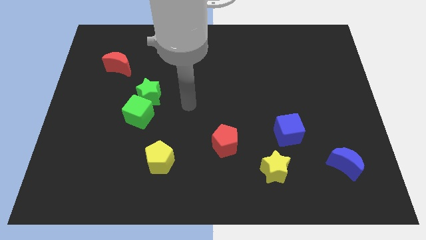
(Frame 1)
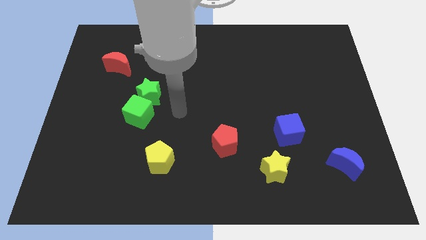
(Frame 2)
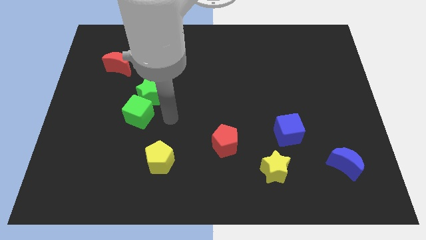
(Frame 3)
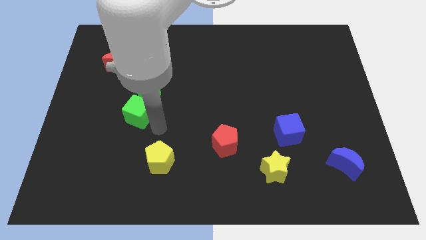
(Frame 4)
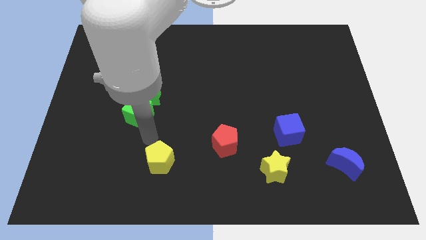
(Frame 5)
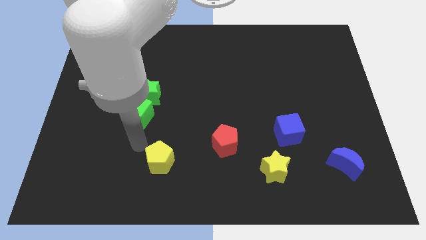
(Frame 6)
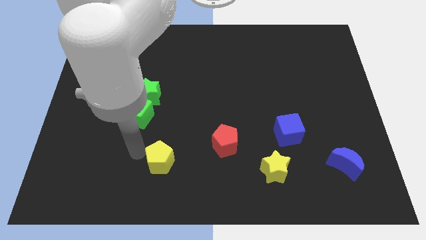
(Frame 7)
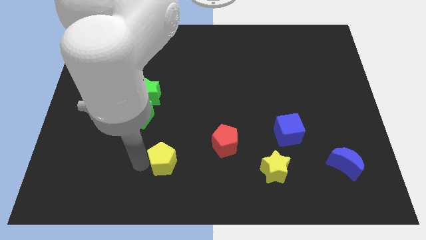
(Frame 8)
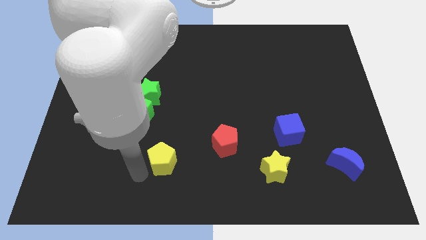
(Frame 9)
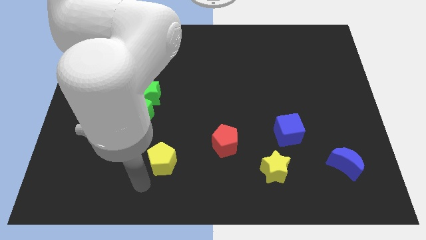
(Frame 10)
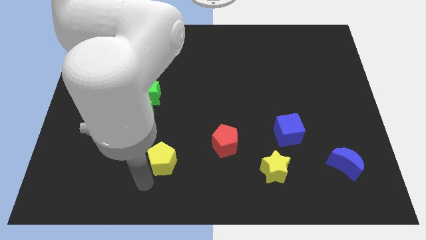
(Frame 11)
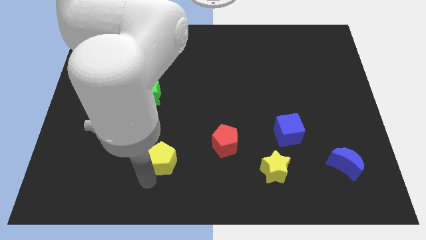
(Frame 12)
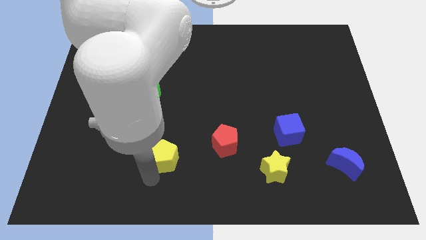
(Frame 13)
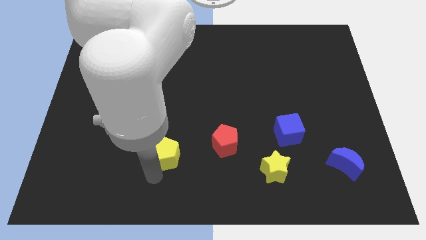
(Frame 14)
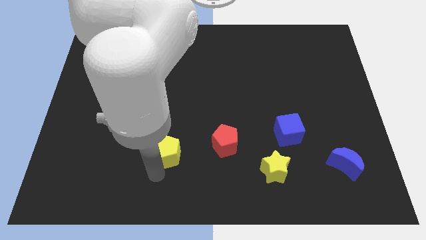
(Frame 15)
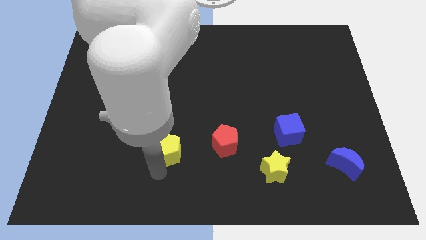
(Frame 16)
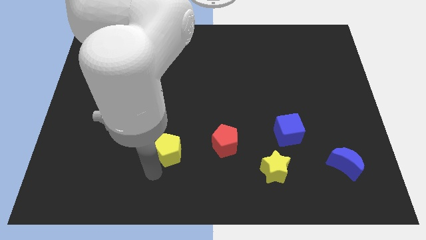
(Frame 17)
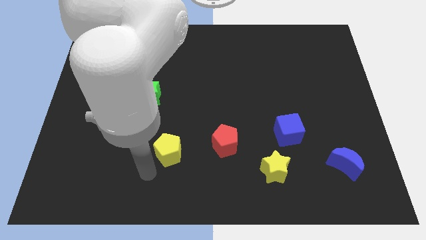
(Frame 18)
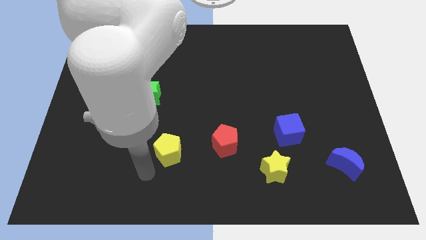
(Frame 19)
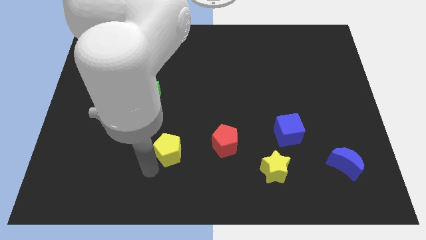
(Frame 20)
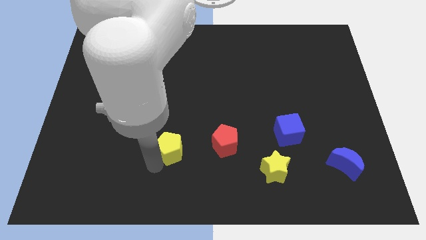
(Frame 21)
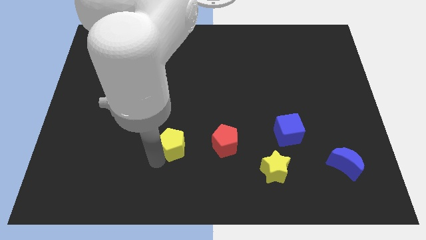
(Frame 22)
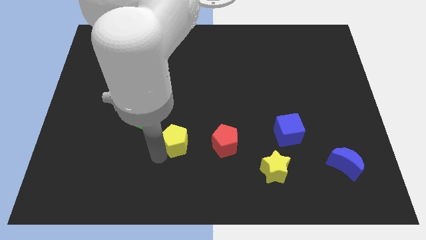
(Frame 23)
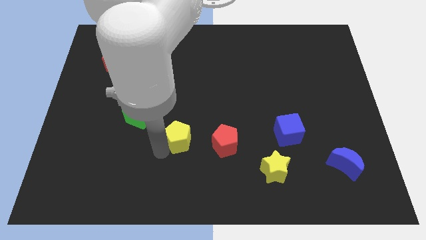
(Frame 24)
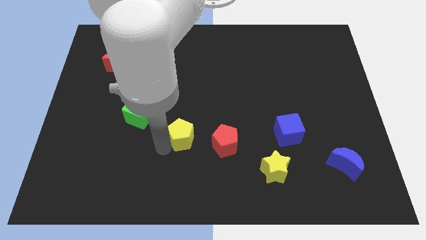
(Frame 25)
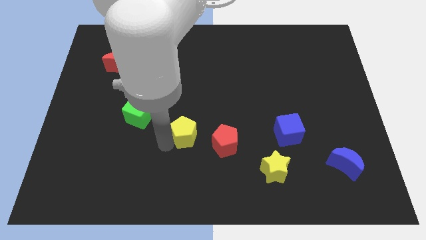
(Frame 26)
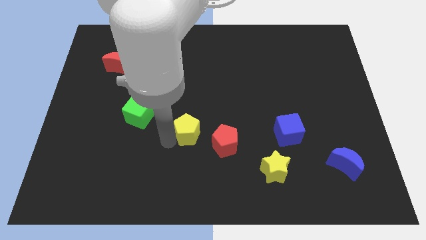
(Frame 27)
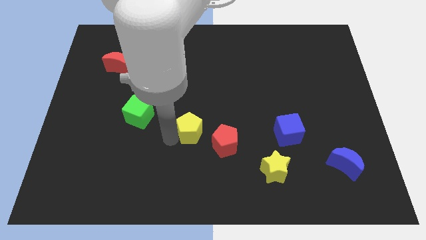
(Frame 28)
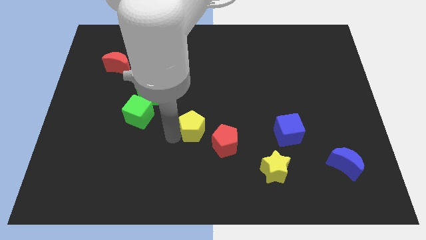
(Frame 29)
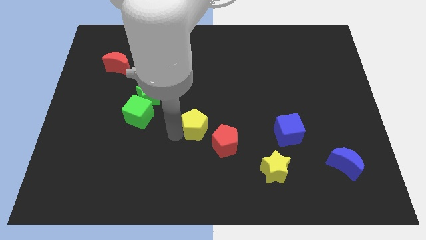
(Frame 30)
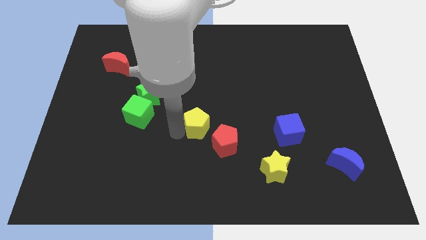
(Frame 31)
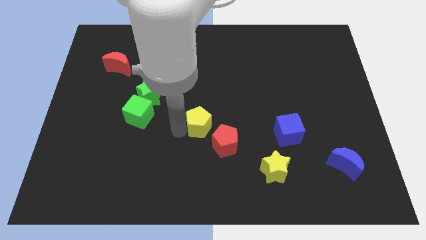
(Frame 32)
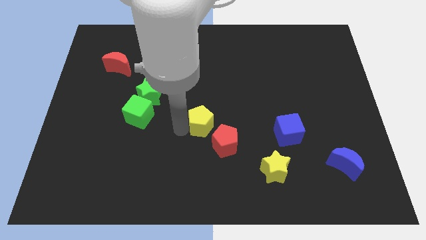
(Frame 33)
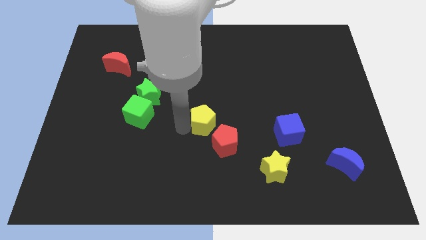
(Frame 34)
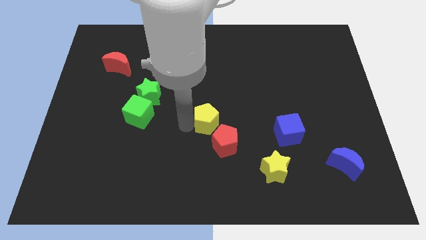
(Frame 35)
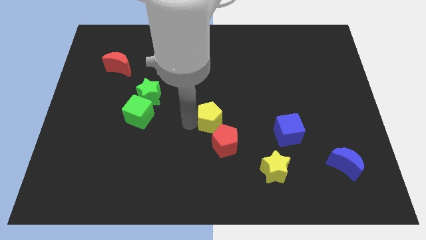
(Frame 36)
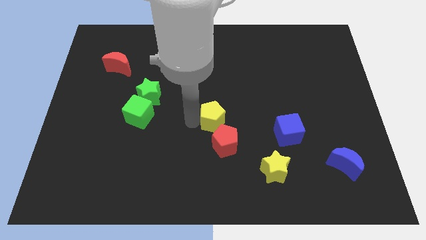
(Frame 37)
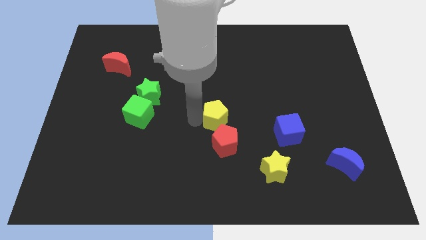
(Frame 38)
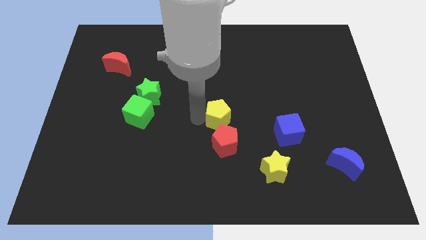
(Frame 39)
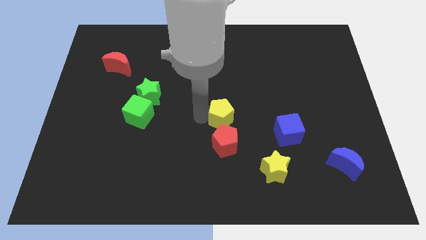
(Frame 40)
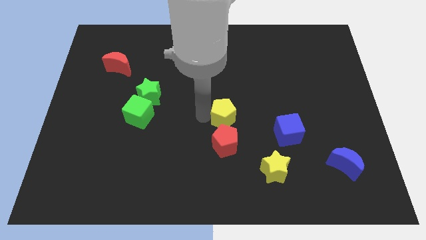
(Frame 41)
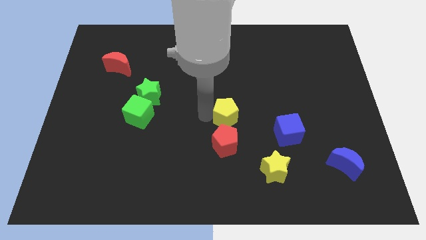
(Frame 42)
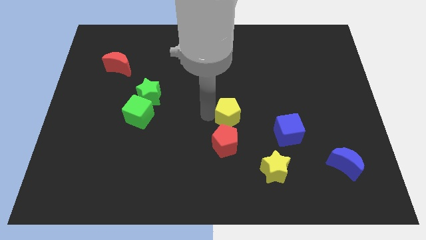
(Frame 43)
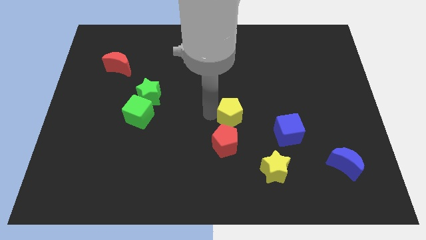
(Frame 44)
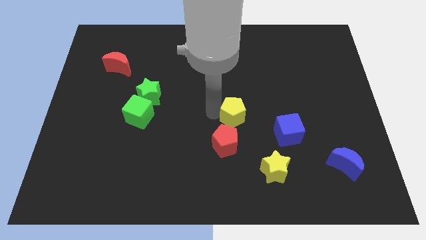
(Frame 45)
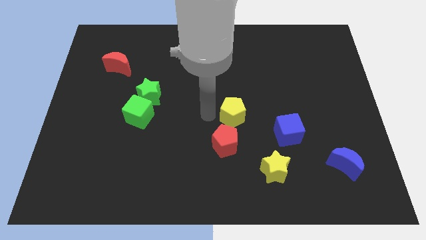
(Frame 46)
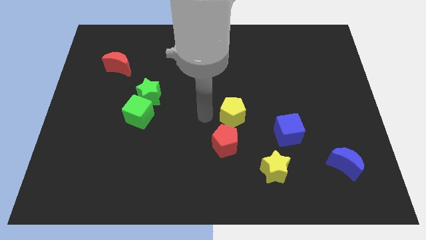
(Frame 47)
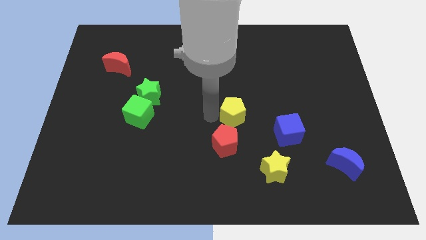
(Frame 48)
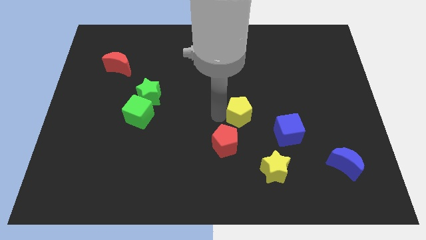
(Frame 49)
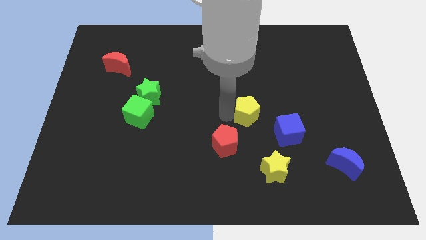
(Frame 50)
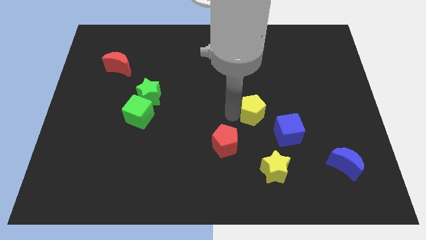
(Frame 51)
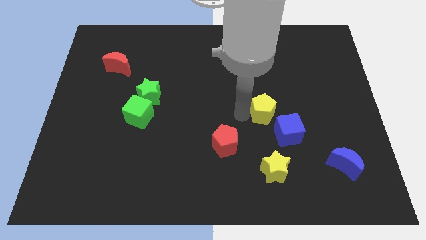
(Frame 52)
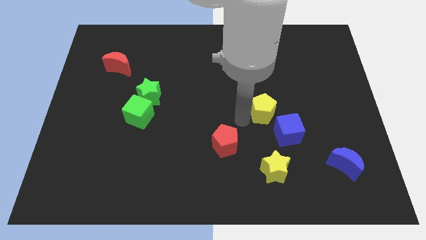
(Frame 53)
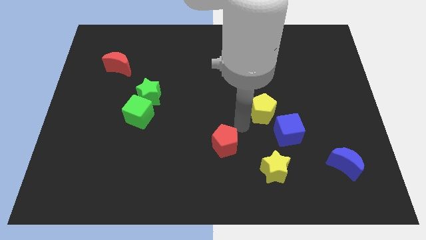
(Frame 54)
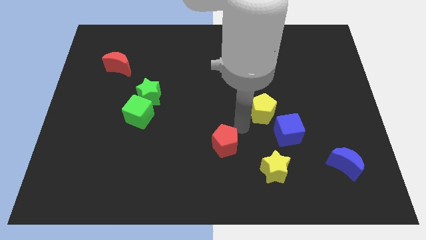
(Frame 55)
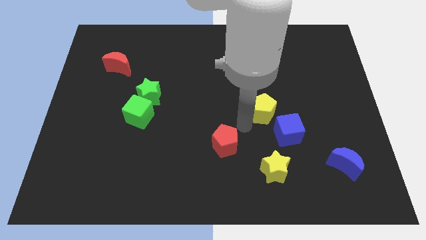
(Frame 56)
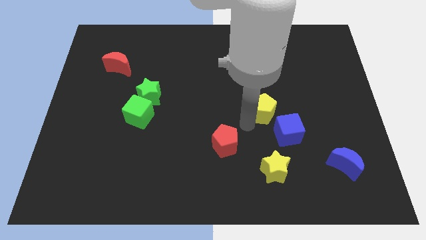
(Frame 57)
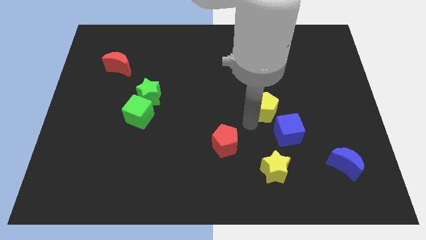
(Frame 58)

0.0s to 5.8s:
put the yellow pentagon to the top of the blue cube

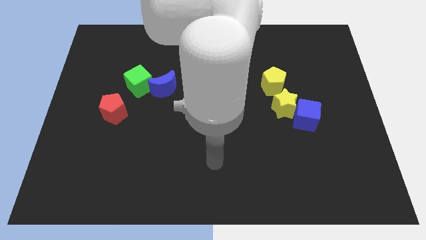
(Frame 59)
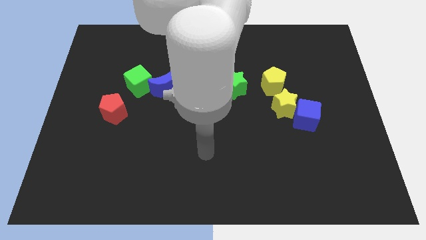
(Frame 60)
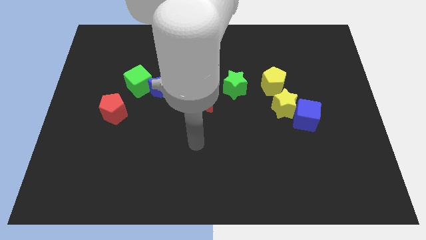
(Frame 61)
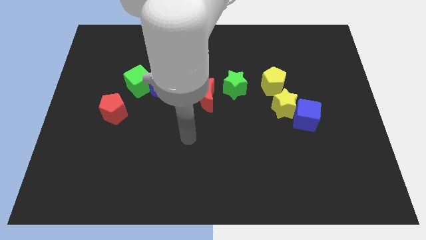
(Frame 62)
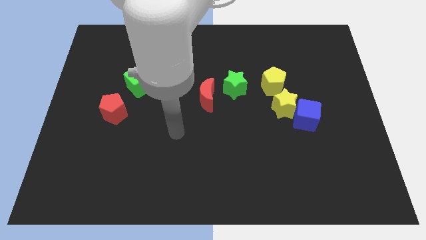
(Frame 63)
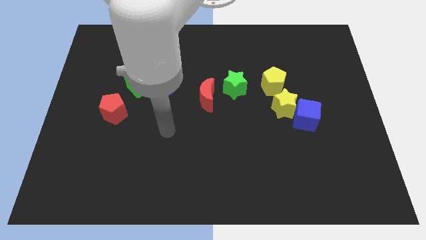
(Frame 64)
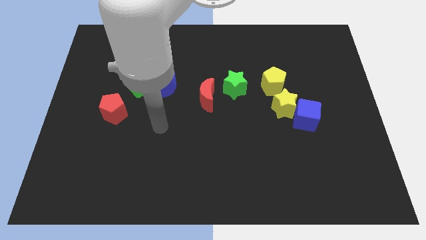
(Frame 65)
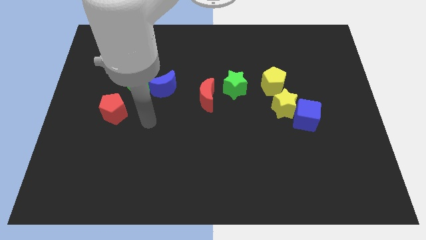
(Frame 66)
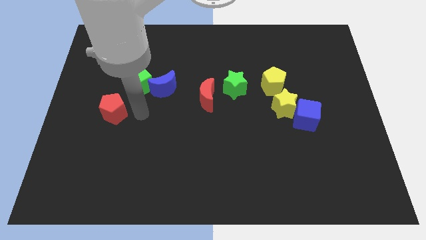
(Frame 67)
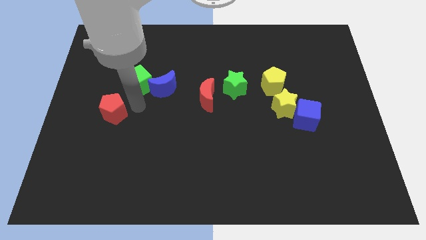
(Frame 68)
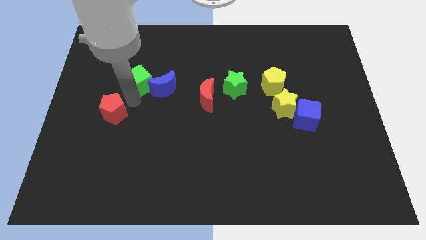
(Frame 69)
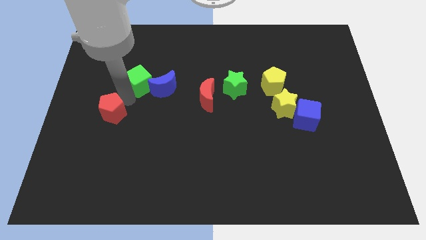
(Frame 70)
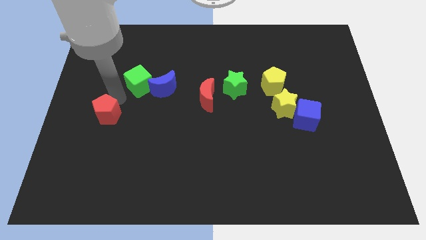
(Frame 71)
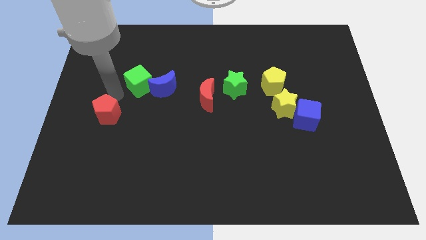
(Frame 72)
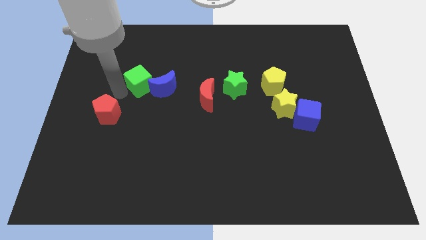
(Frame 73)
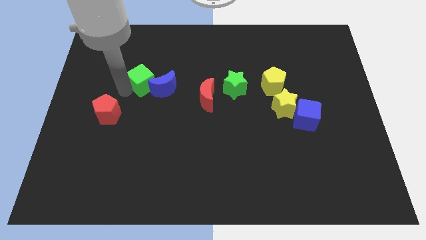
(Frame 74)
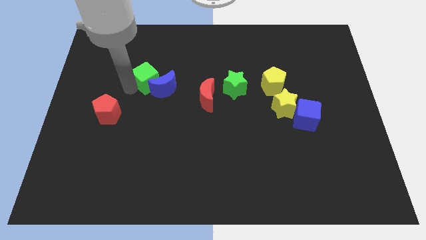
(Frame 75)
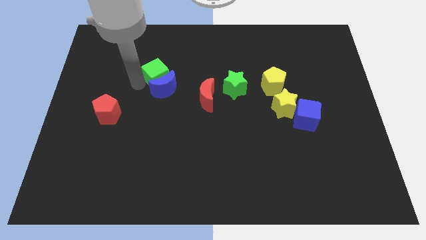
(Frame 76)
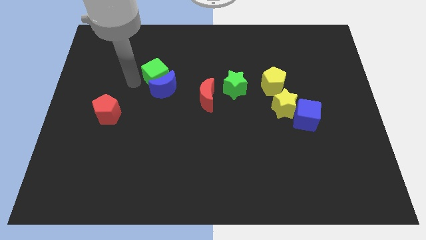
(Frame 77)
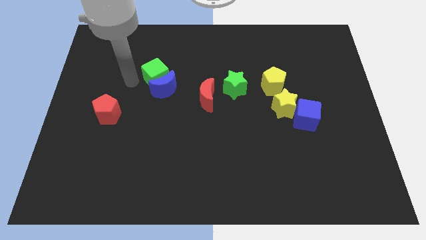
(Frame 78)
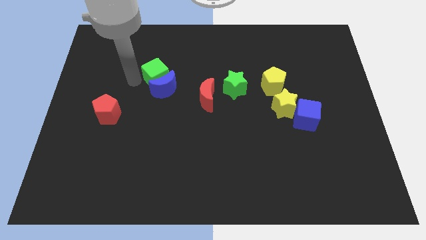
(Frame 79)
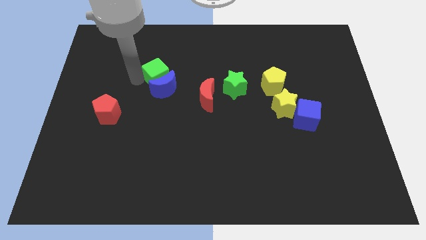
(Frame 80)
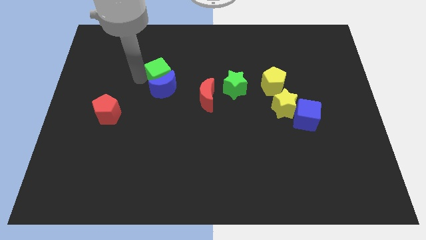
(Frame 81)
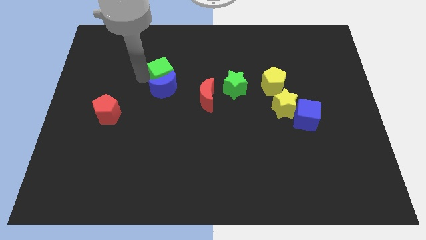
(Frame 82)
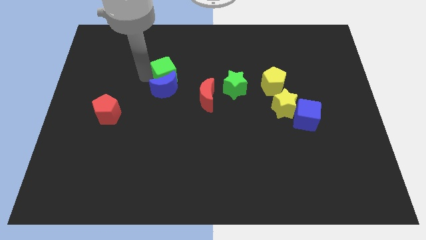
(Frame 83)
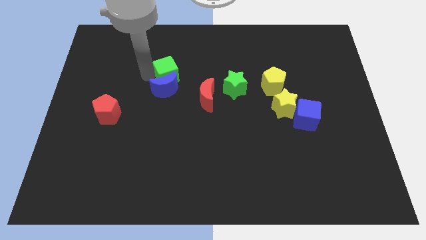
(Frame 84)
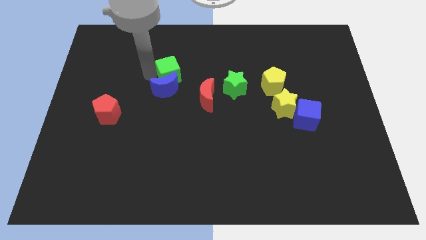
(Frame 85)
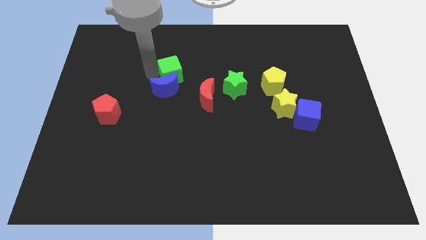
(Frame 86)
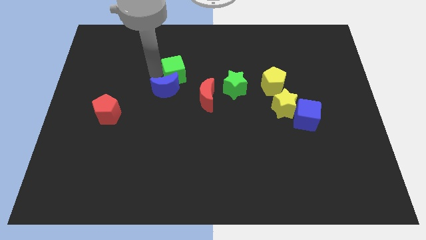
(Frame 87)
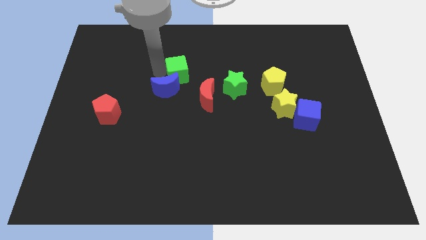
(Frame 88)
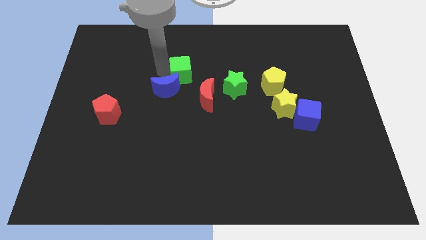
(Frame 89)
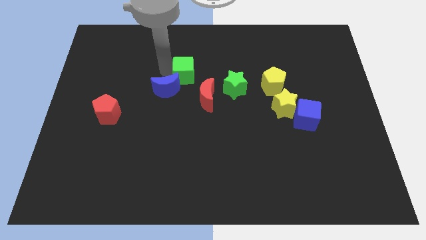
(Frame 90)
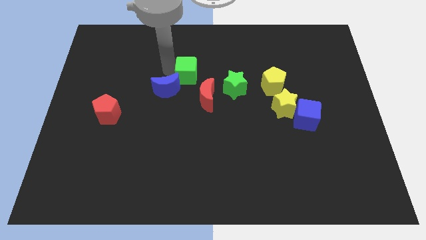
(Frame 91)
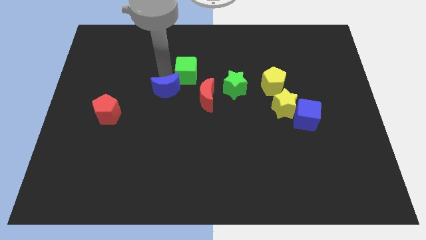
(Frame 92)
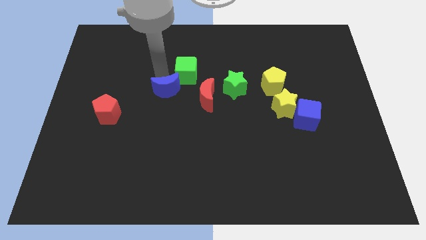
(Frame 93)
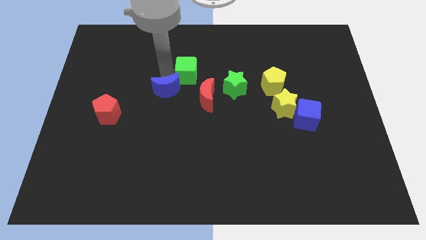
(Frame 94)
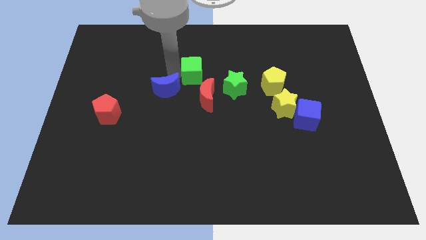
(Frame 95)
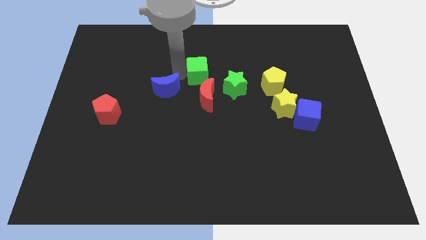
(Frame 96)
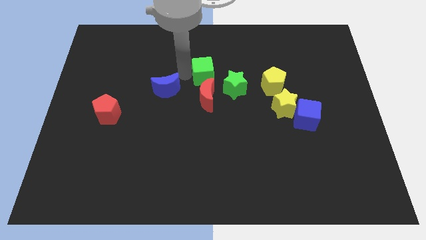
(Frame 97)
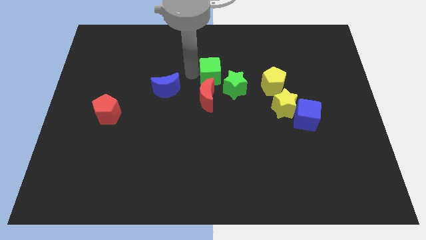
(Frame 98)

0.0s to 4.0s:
put the green cube diagonally up and to the right of the red moon
